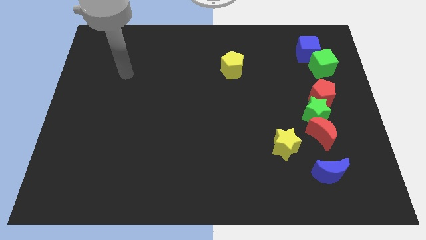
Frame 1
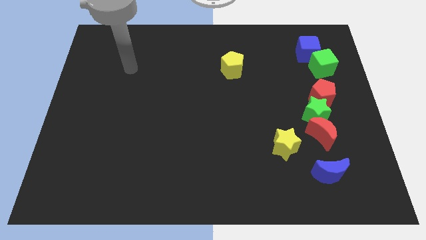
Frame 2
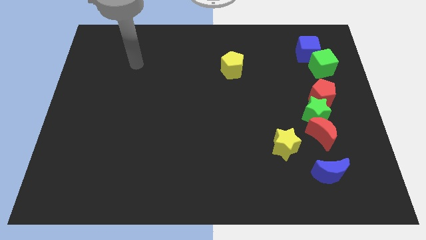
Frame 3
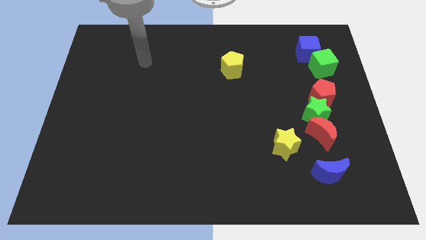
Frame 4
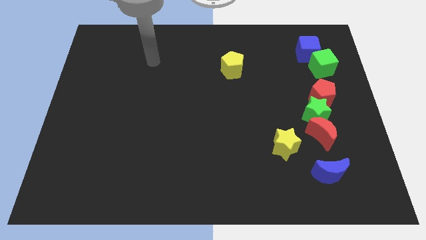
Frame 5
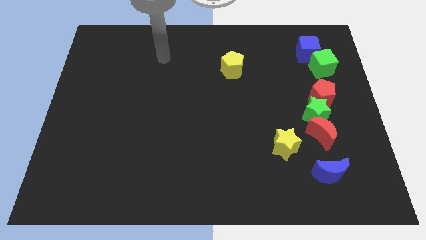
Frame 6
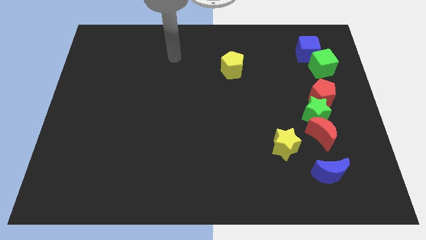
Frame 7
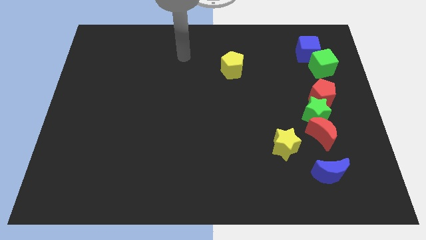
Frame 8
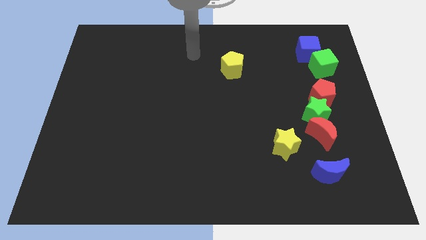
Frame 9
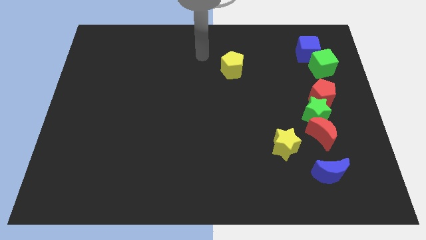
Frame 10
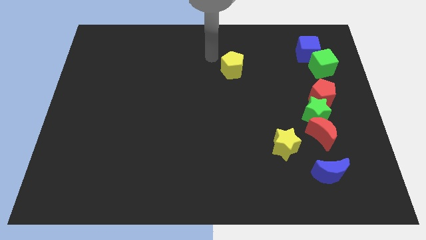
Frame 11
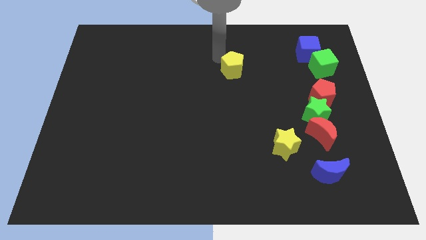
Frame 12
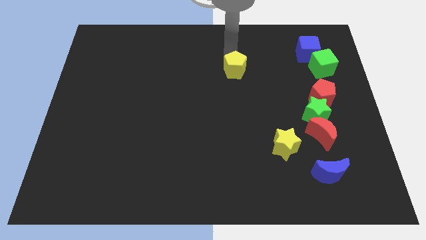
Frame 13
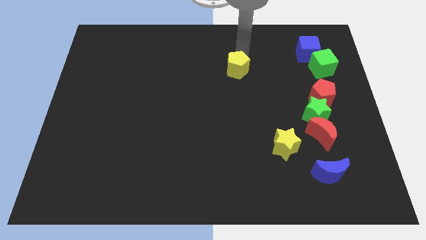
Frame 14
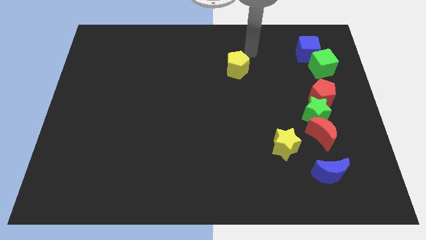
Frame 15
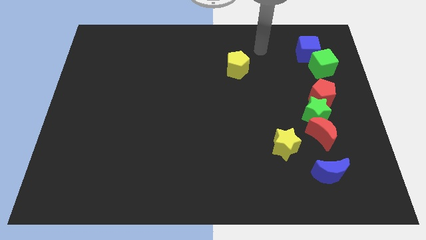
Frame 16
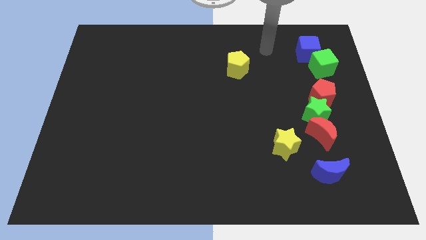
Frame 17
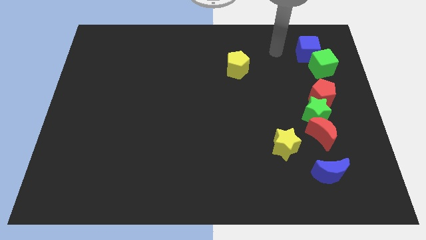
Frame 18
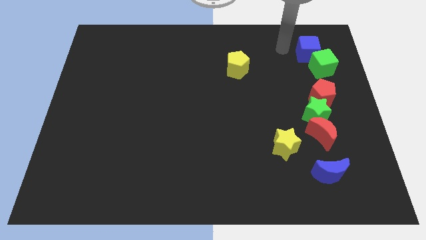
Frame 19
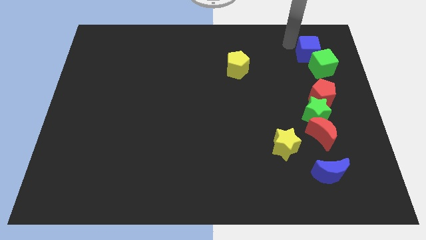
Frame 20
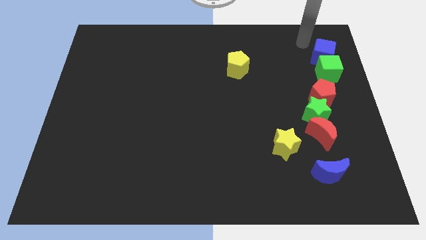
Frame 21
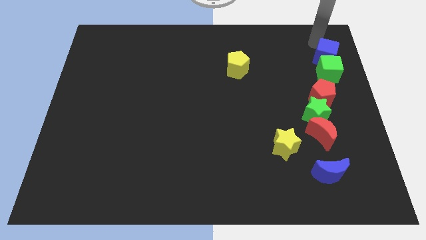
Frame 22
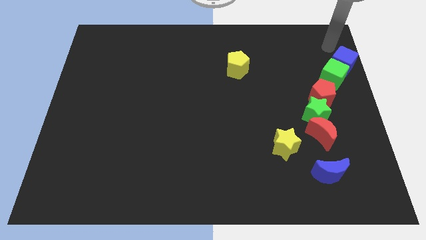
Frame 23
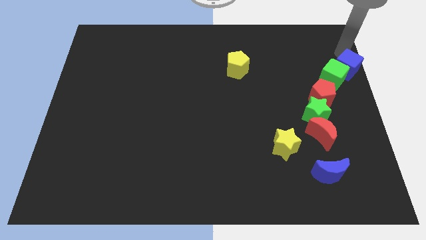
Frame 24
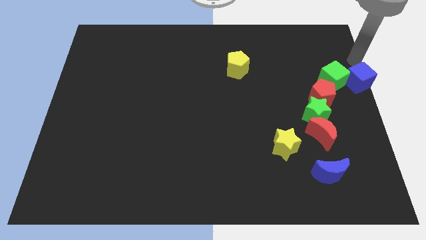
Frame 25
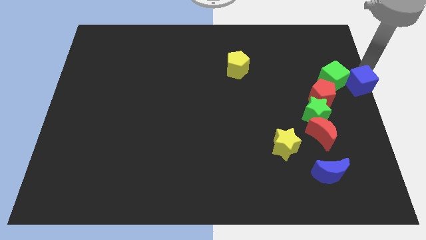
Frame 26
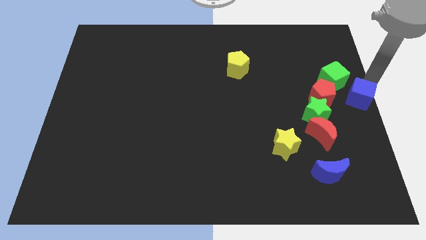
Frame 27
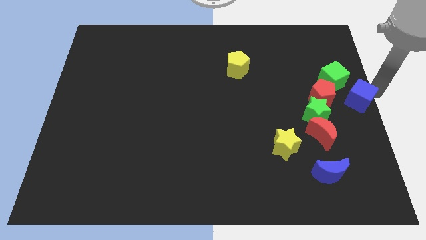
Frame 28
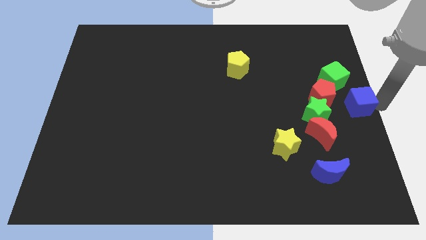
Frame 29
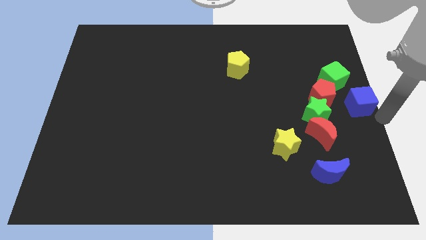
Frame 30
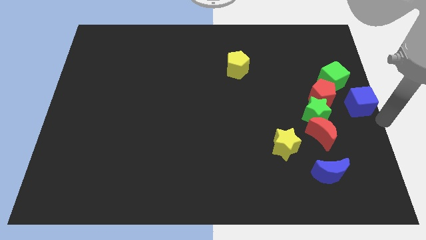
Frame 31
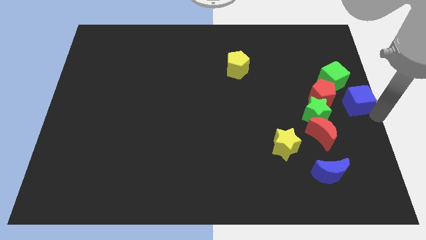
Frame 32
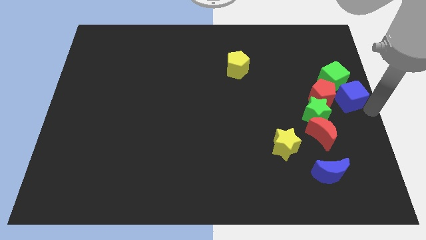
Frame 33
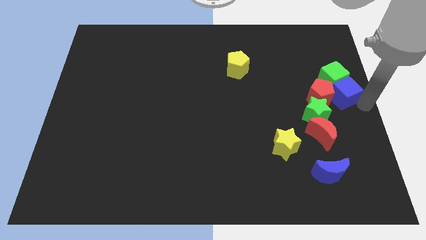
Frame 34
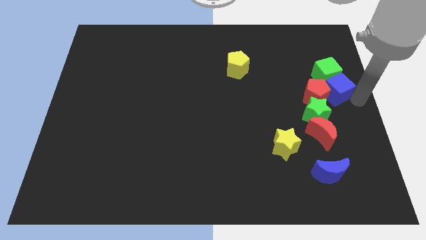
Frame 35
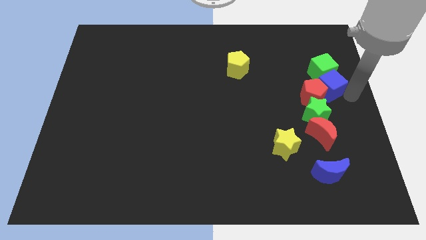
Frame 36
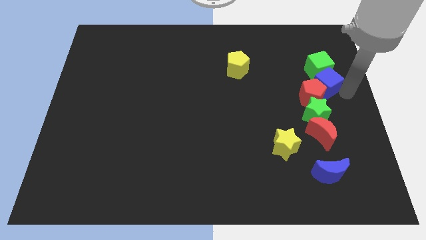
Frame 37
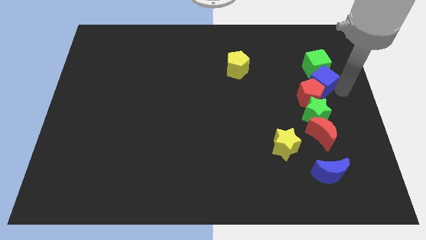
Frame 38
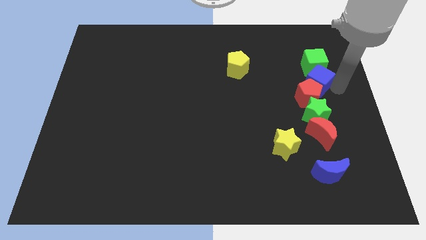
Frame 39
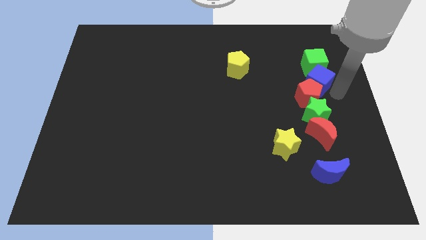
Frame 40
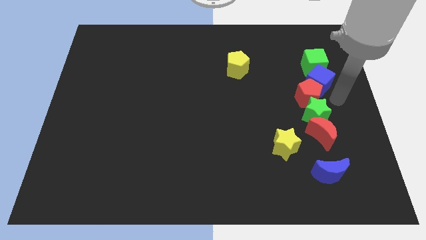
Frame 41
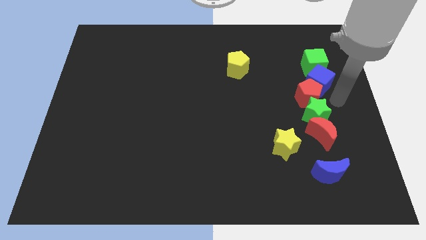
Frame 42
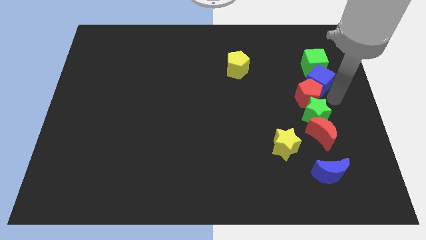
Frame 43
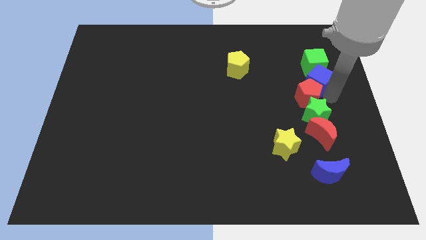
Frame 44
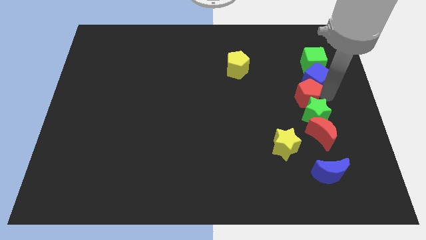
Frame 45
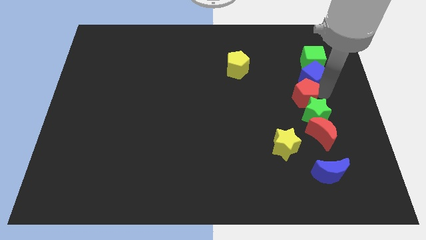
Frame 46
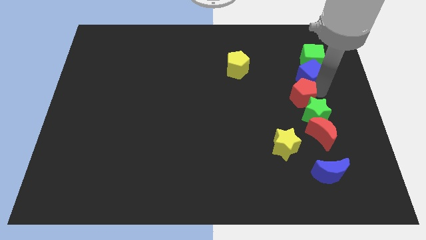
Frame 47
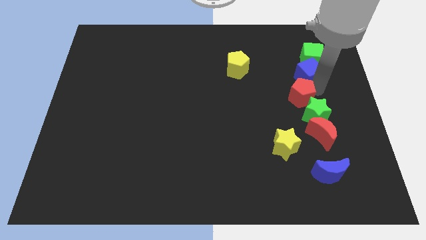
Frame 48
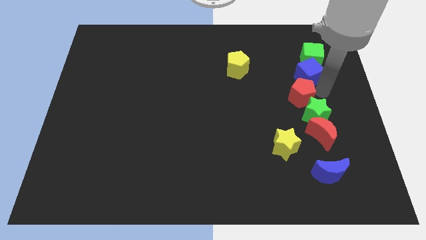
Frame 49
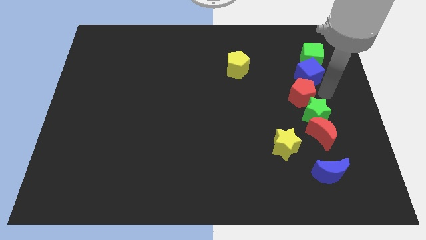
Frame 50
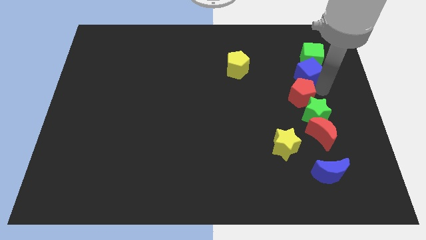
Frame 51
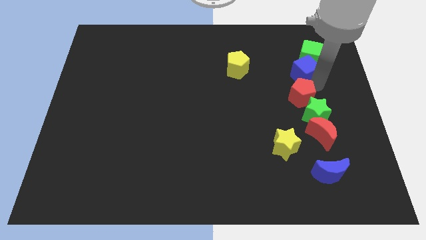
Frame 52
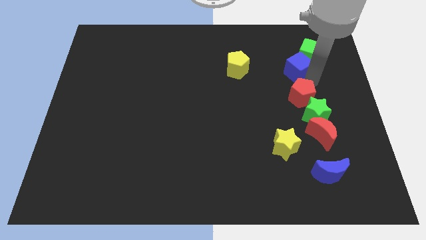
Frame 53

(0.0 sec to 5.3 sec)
slide the blue cube to the right side of the yellow pentagon

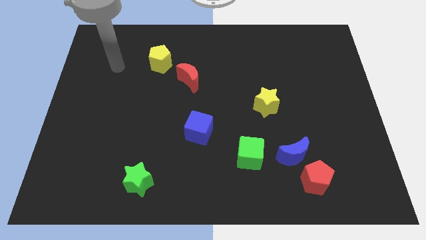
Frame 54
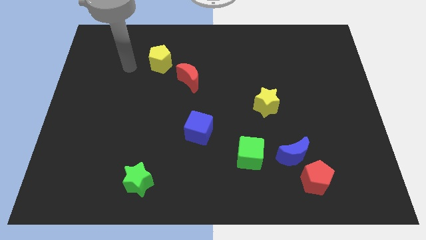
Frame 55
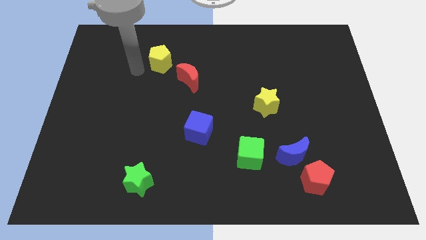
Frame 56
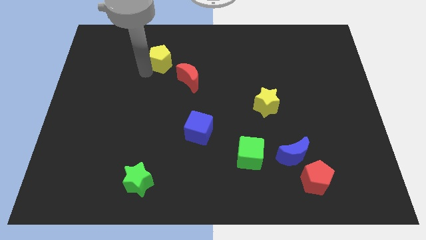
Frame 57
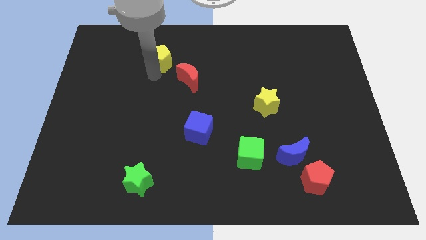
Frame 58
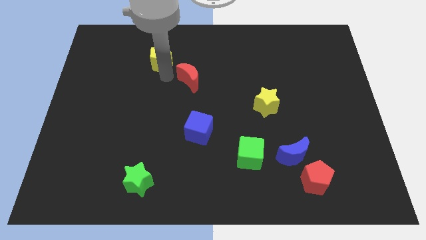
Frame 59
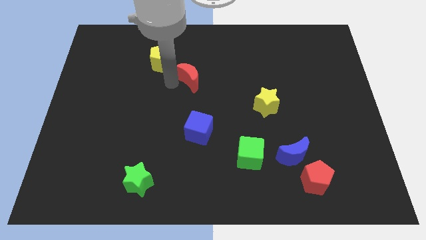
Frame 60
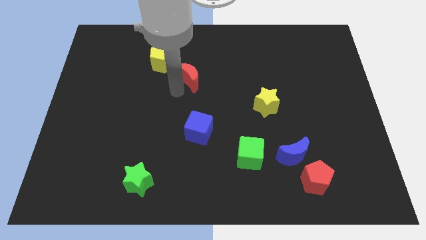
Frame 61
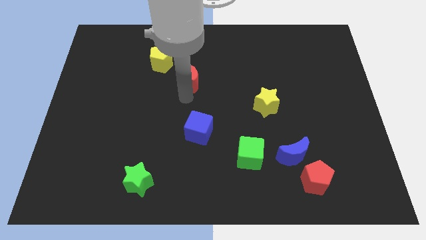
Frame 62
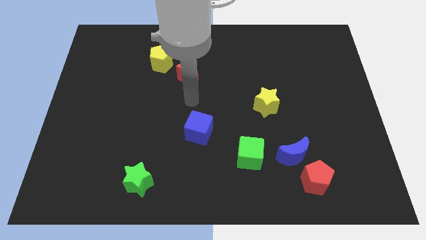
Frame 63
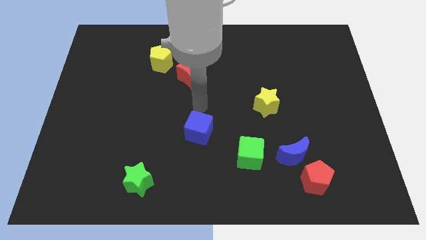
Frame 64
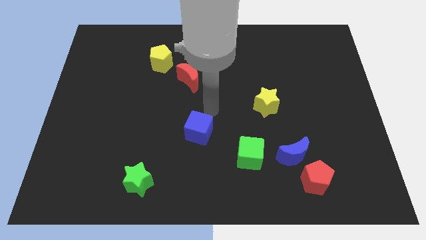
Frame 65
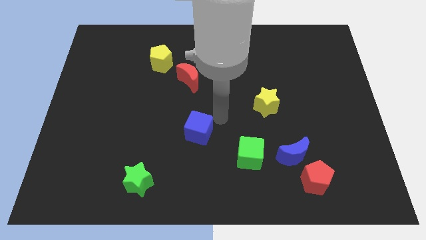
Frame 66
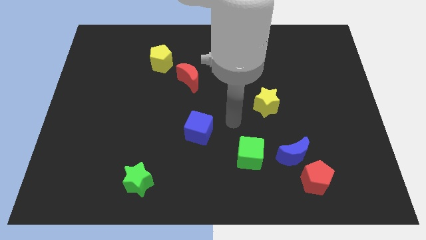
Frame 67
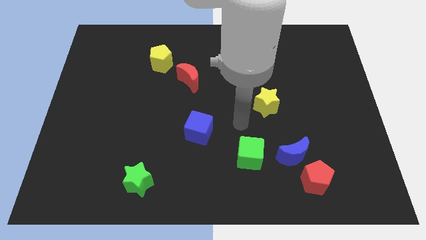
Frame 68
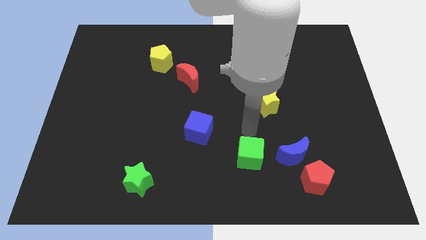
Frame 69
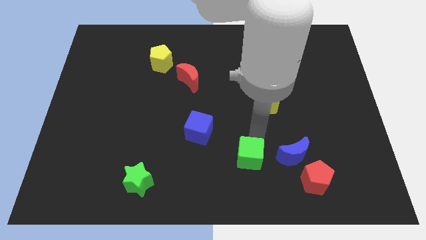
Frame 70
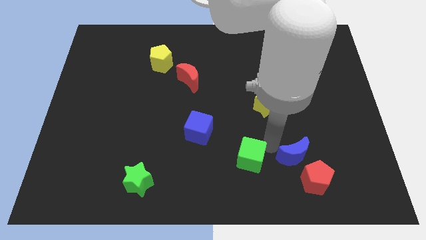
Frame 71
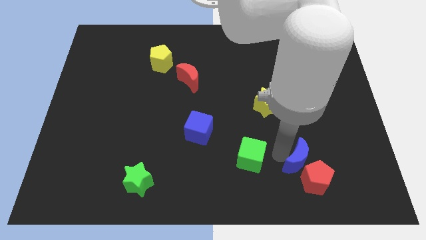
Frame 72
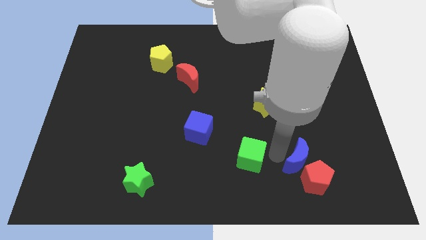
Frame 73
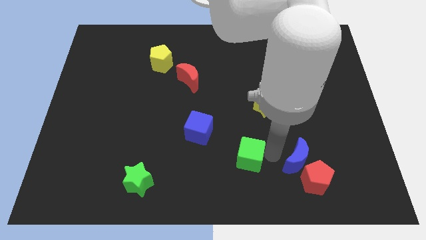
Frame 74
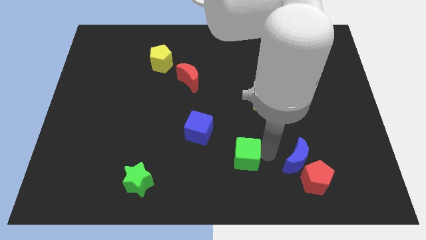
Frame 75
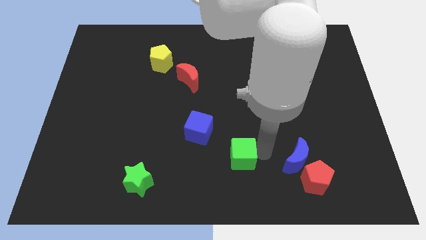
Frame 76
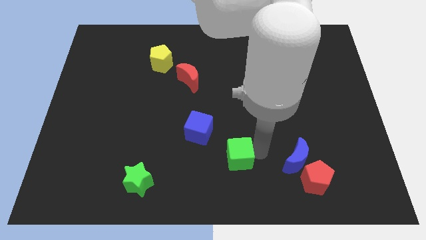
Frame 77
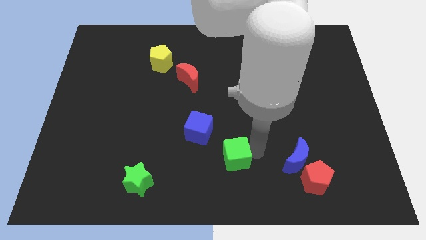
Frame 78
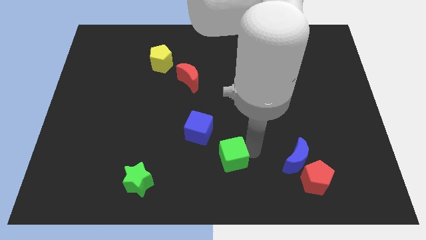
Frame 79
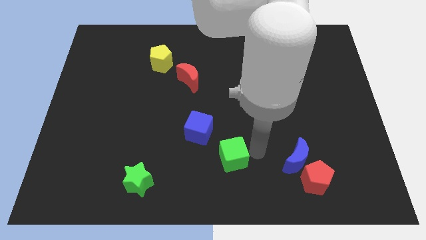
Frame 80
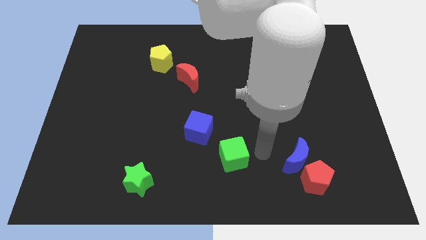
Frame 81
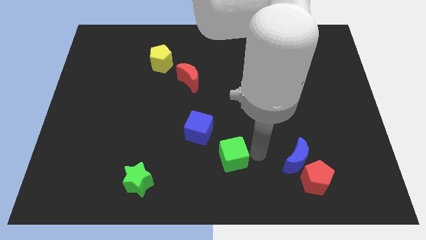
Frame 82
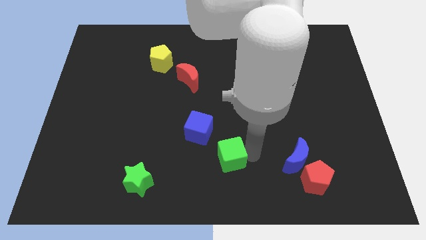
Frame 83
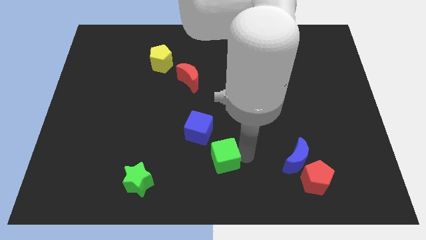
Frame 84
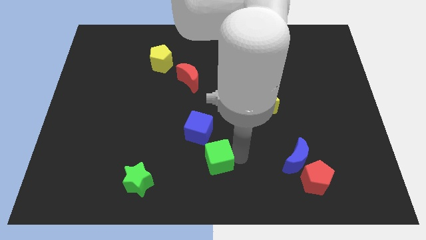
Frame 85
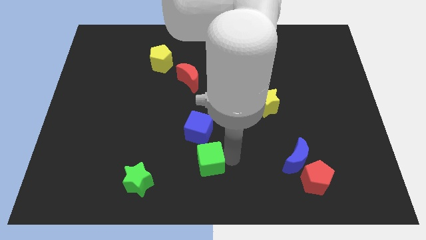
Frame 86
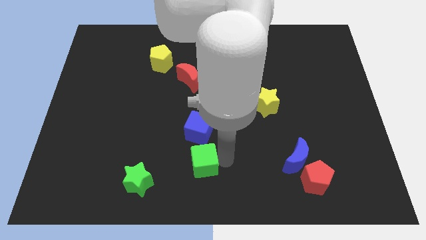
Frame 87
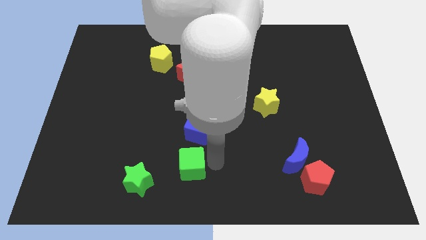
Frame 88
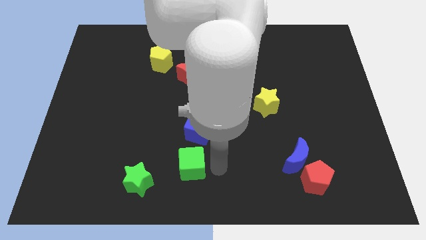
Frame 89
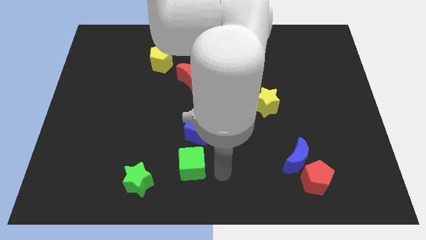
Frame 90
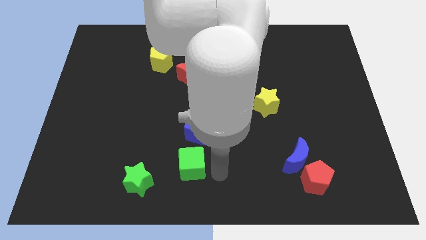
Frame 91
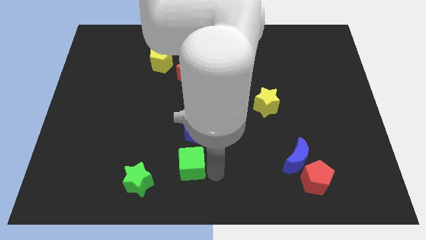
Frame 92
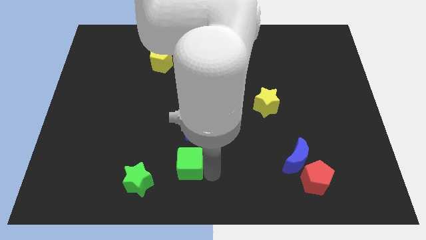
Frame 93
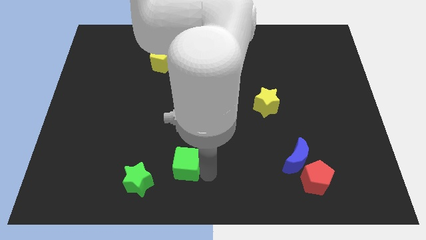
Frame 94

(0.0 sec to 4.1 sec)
push the green cube to the top right of the green star
